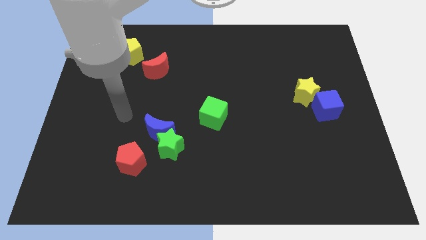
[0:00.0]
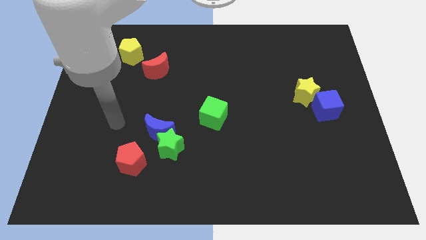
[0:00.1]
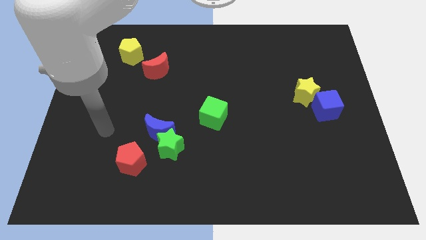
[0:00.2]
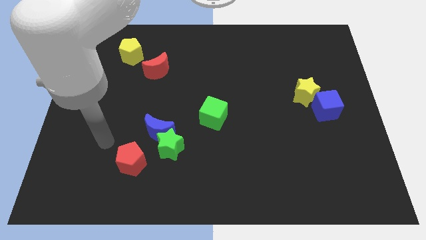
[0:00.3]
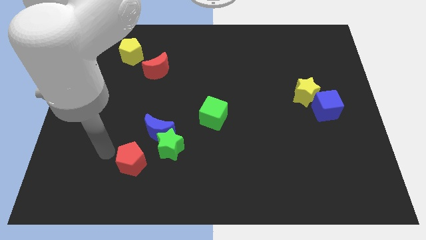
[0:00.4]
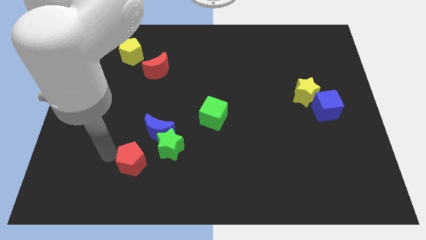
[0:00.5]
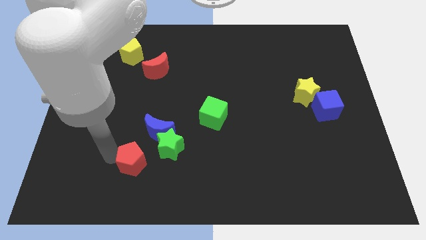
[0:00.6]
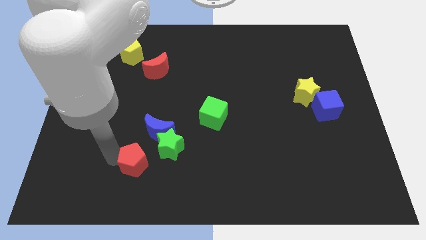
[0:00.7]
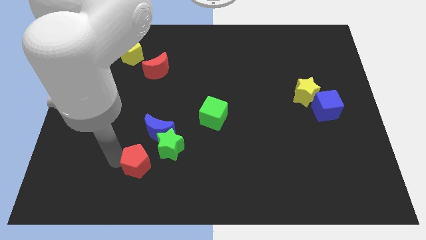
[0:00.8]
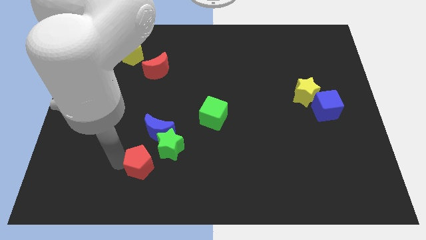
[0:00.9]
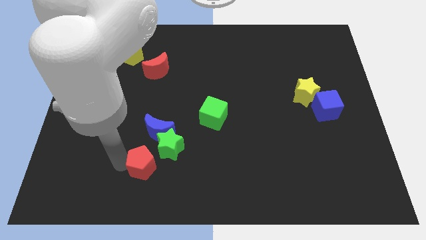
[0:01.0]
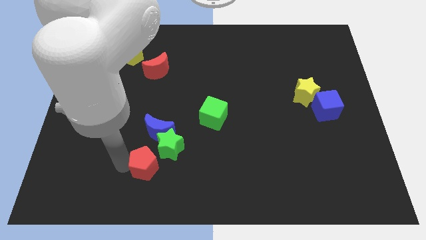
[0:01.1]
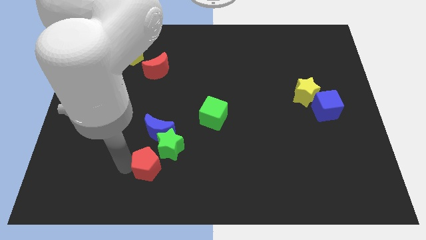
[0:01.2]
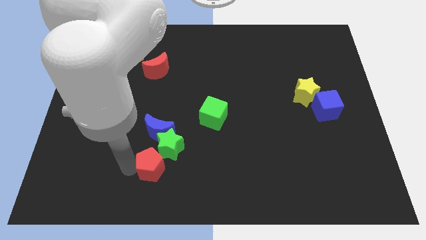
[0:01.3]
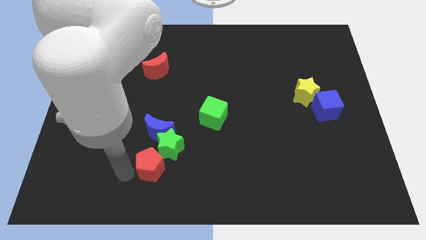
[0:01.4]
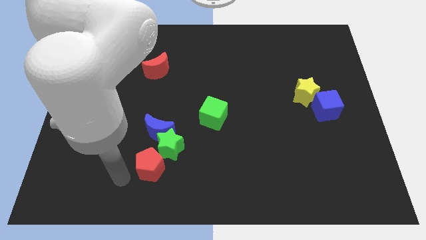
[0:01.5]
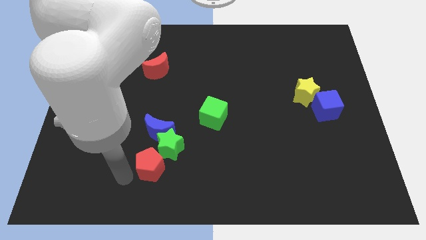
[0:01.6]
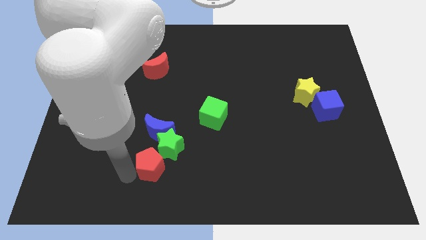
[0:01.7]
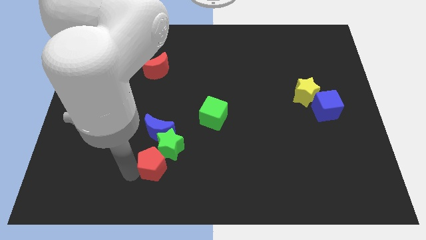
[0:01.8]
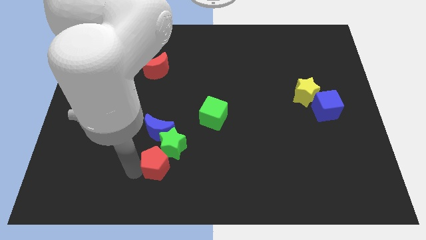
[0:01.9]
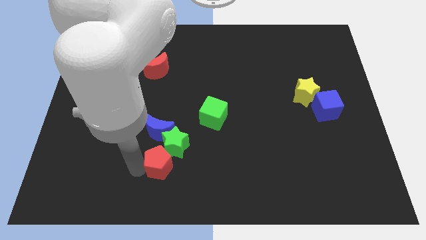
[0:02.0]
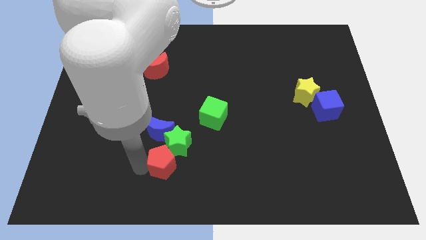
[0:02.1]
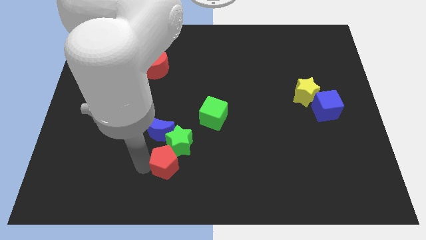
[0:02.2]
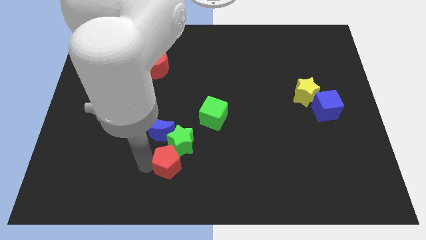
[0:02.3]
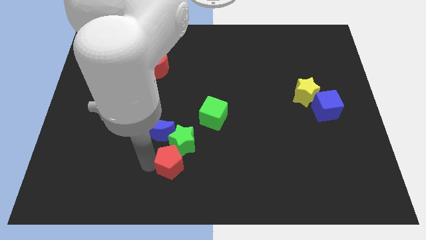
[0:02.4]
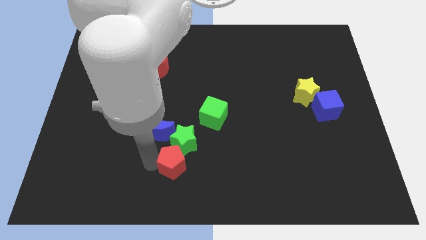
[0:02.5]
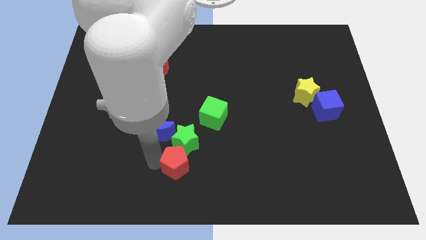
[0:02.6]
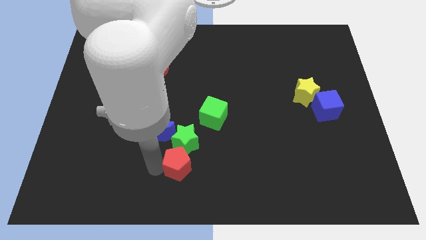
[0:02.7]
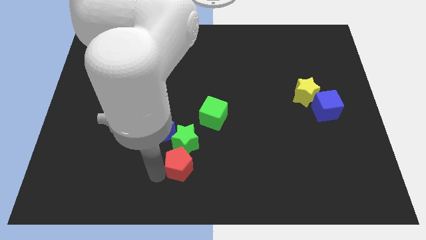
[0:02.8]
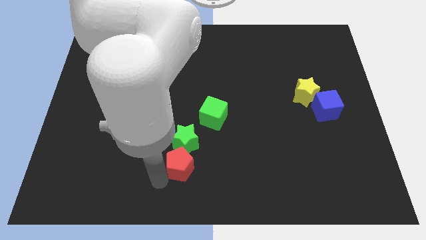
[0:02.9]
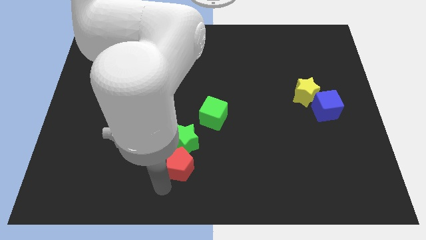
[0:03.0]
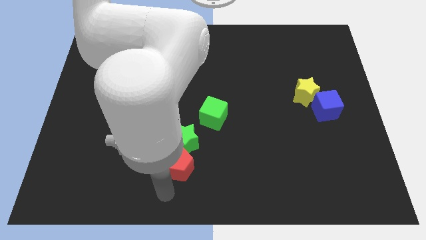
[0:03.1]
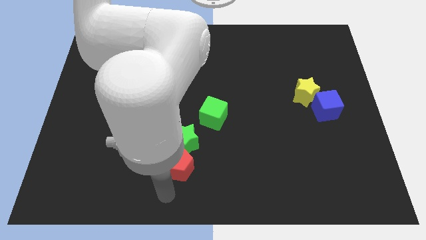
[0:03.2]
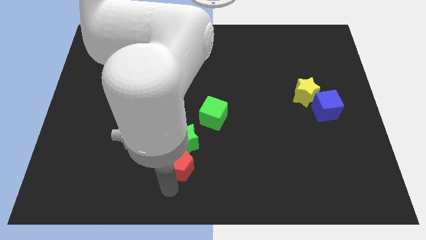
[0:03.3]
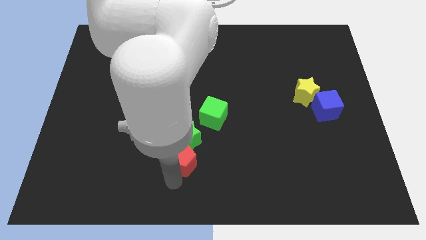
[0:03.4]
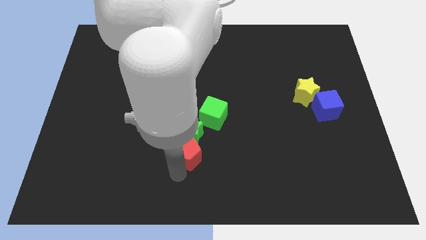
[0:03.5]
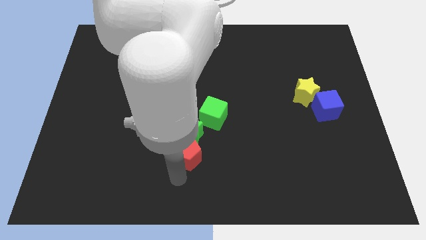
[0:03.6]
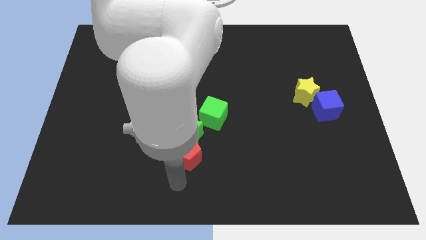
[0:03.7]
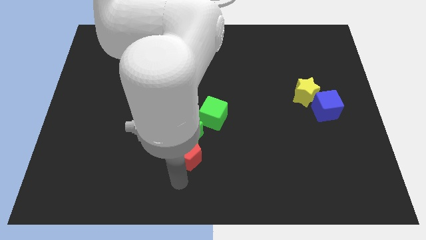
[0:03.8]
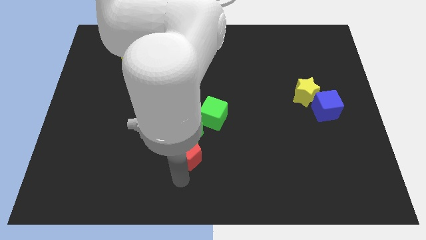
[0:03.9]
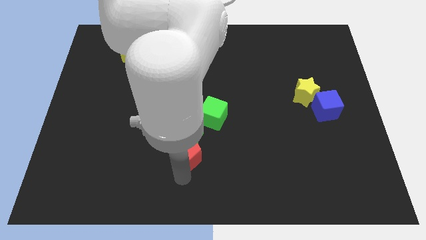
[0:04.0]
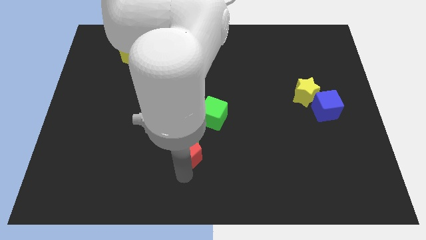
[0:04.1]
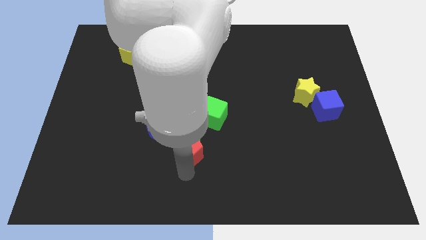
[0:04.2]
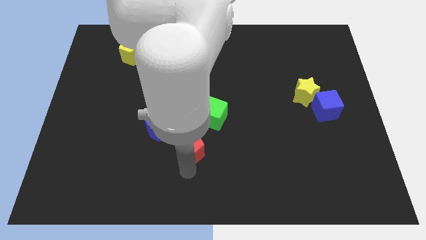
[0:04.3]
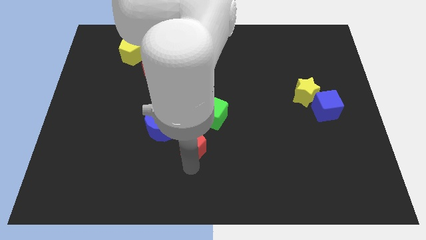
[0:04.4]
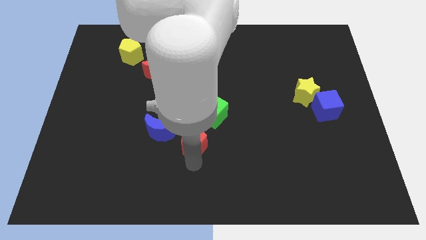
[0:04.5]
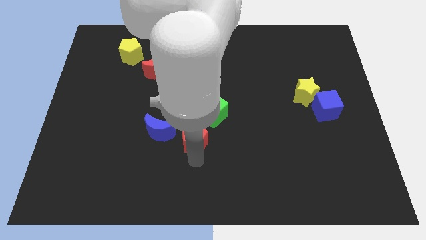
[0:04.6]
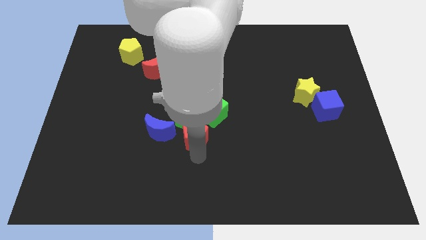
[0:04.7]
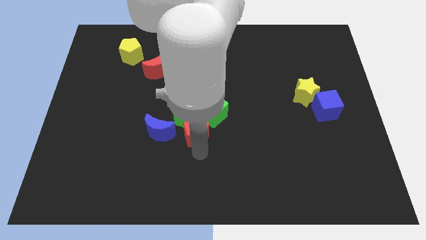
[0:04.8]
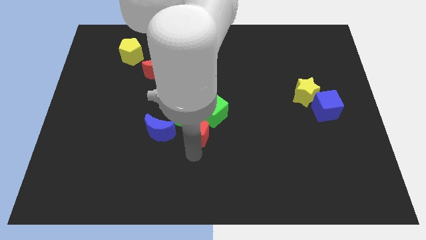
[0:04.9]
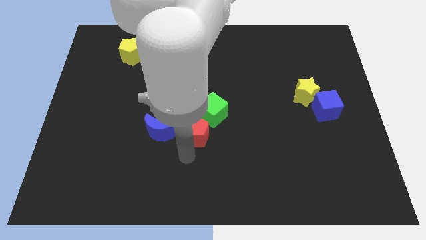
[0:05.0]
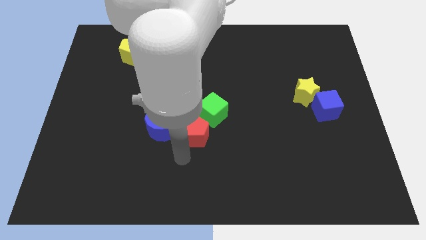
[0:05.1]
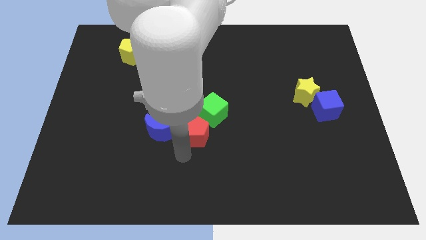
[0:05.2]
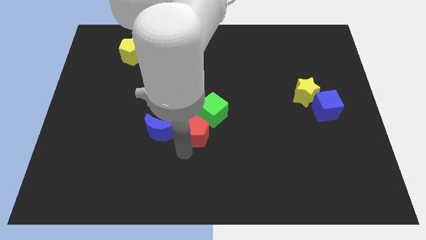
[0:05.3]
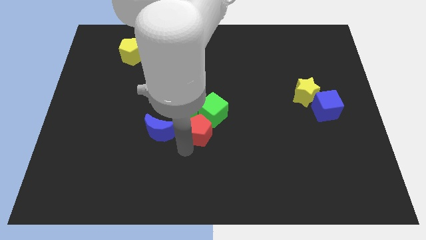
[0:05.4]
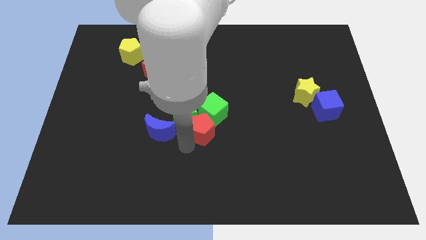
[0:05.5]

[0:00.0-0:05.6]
move the red pentagon towards the green cube

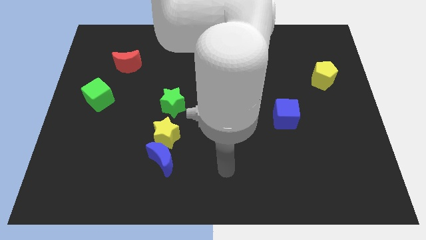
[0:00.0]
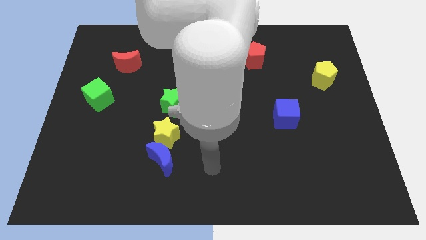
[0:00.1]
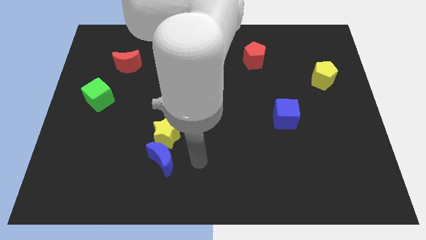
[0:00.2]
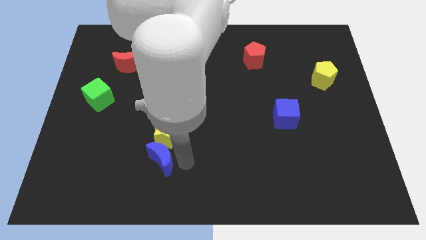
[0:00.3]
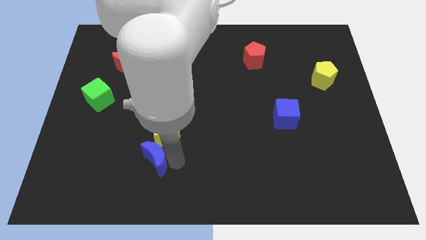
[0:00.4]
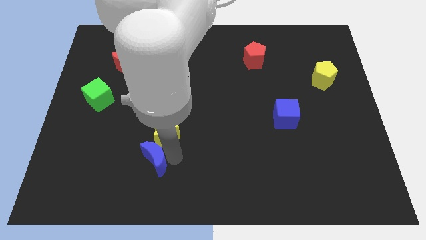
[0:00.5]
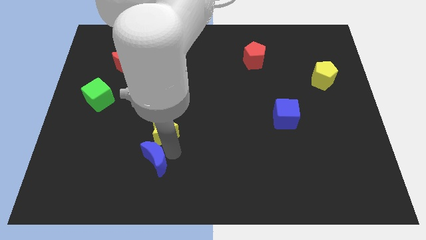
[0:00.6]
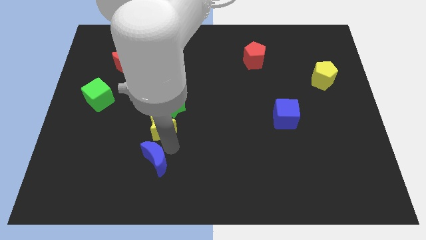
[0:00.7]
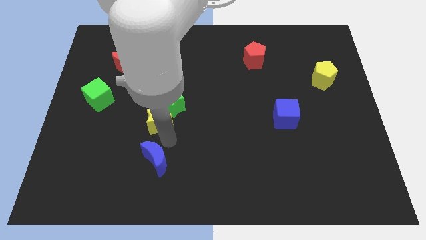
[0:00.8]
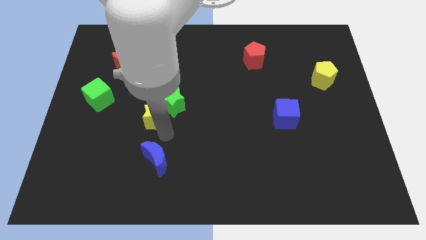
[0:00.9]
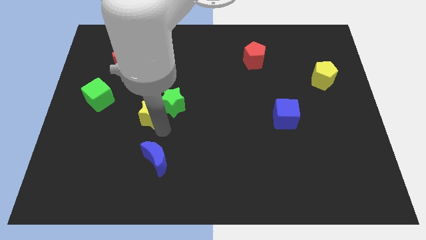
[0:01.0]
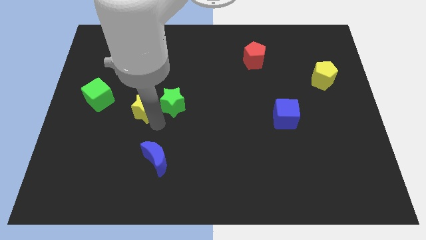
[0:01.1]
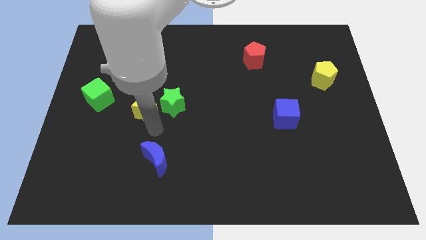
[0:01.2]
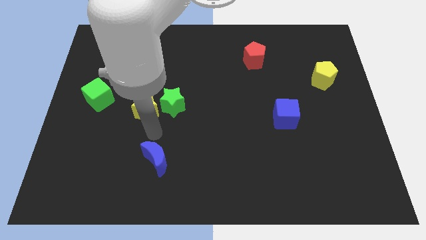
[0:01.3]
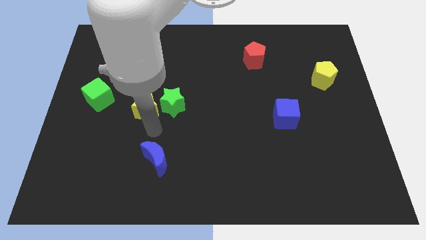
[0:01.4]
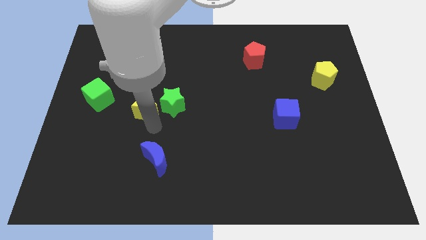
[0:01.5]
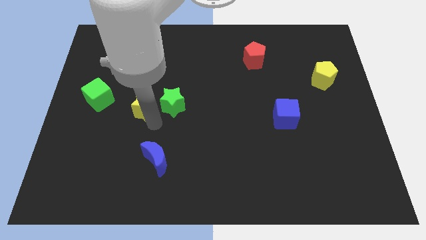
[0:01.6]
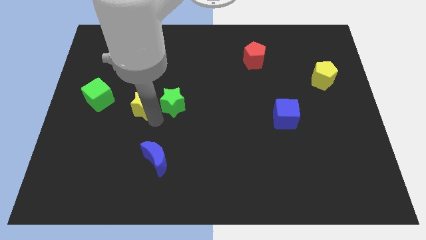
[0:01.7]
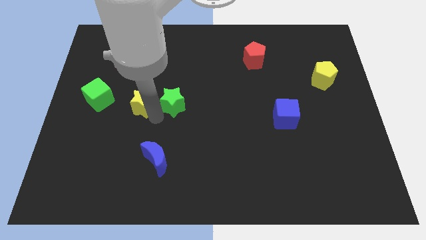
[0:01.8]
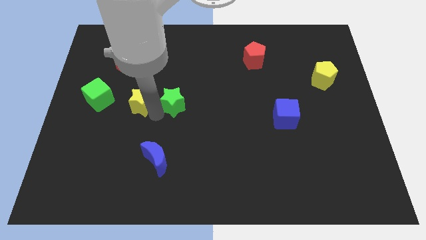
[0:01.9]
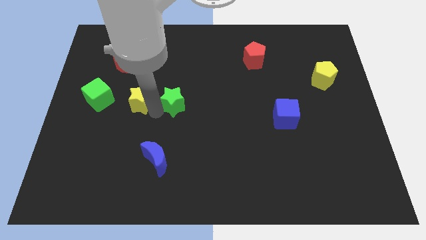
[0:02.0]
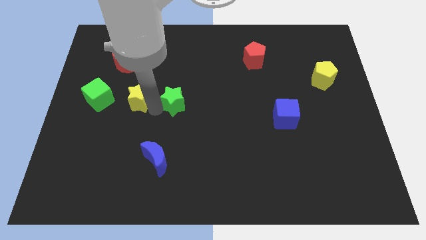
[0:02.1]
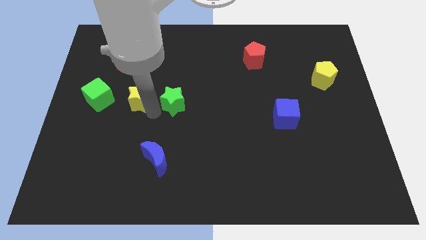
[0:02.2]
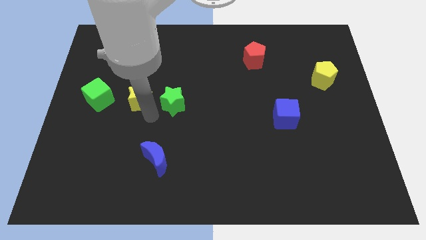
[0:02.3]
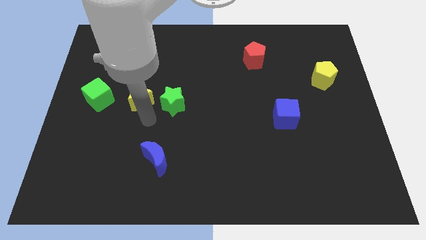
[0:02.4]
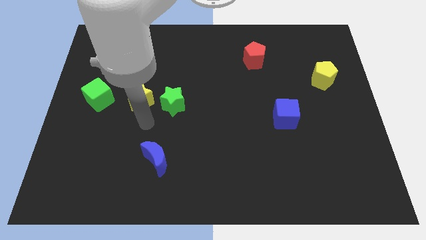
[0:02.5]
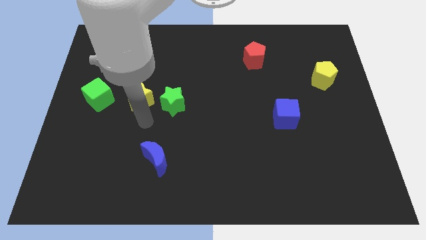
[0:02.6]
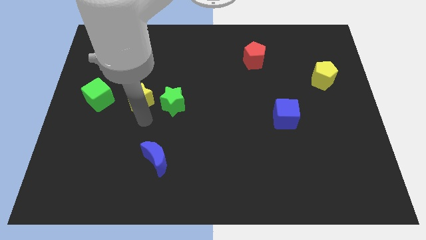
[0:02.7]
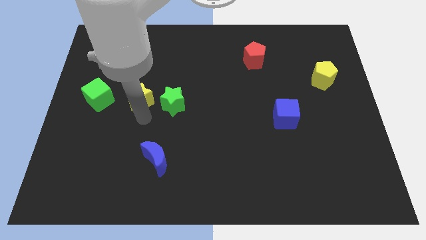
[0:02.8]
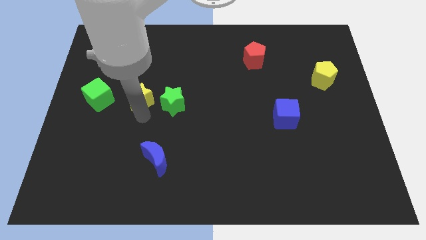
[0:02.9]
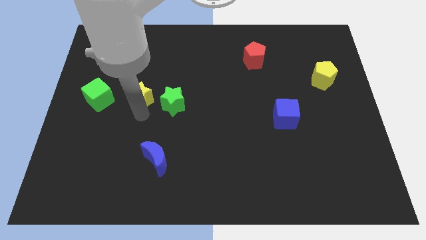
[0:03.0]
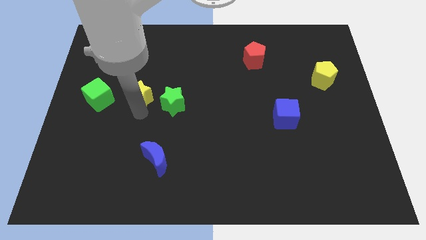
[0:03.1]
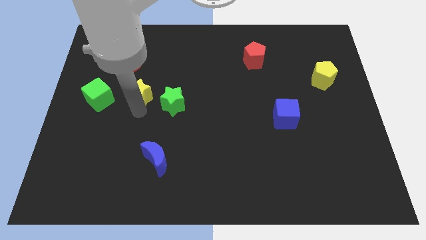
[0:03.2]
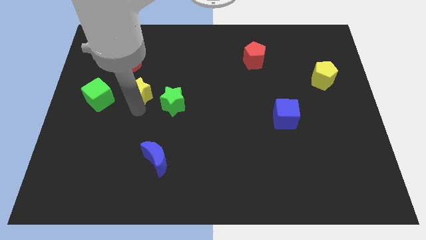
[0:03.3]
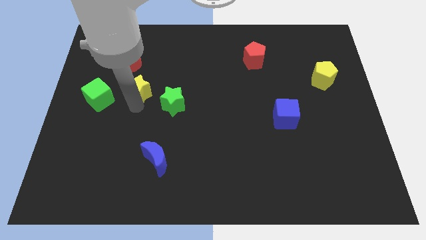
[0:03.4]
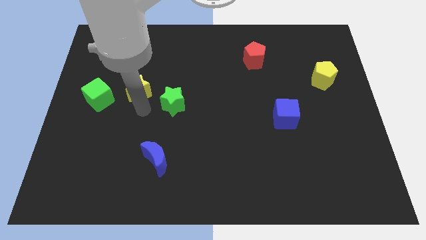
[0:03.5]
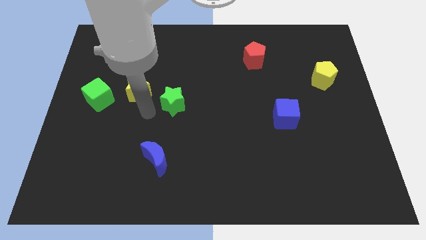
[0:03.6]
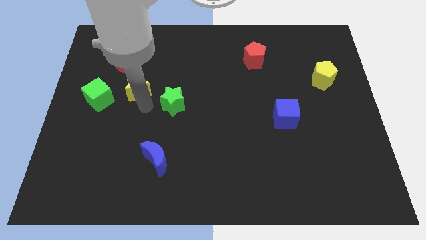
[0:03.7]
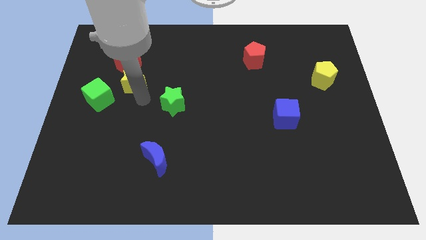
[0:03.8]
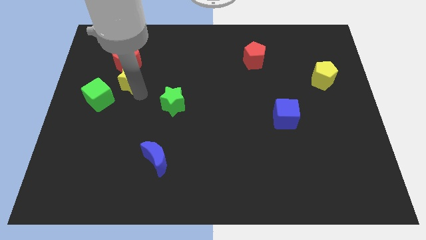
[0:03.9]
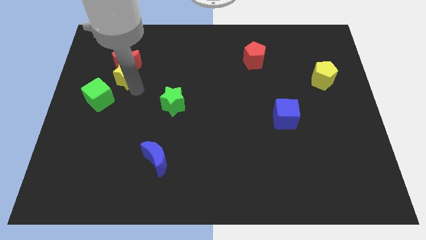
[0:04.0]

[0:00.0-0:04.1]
move the yellow star to the red moon
